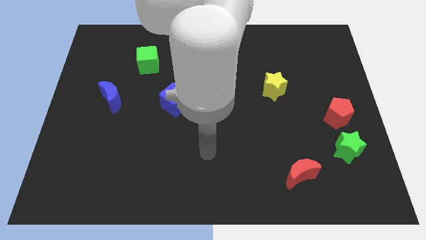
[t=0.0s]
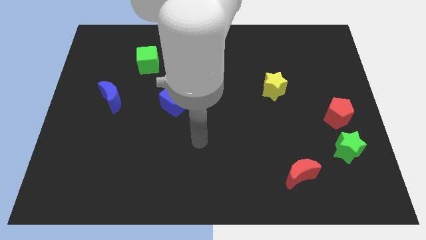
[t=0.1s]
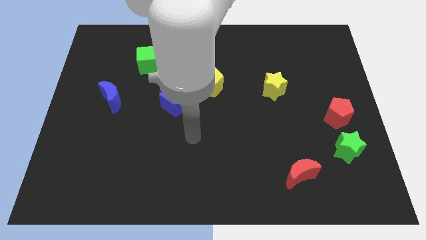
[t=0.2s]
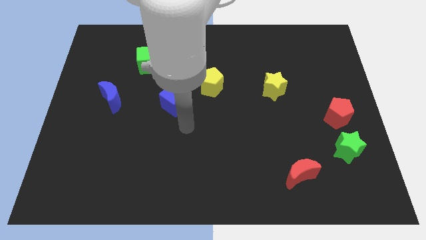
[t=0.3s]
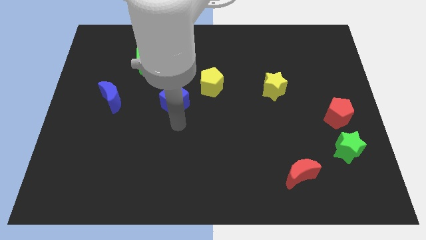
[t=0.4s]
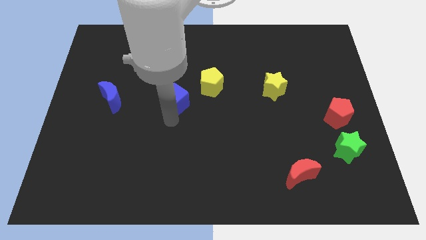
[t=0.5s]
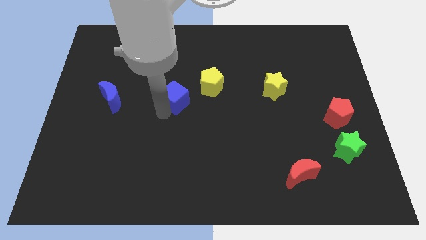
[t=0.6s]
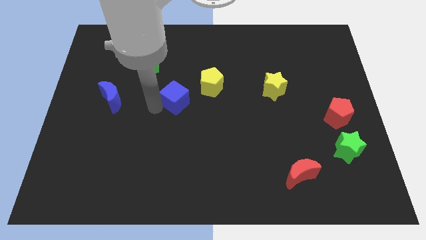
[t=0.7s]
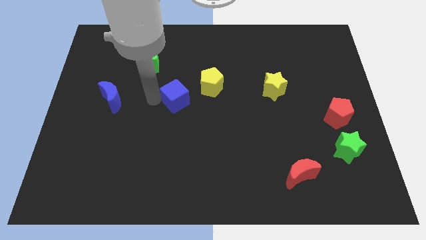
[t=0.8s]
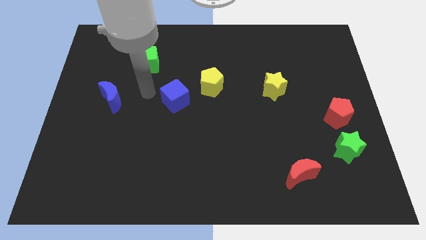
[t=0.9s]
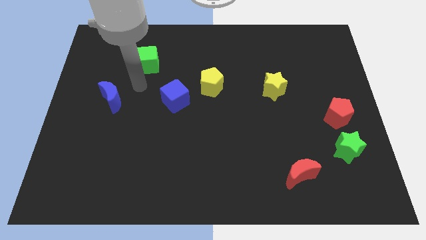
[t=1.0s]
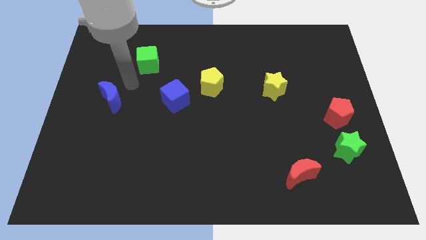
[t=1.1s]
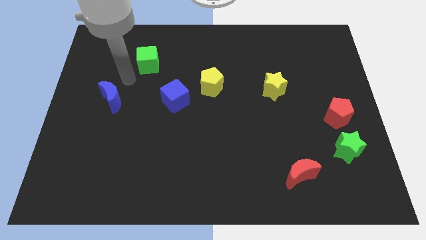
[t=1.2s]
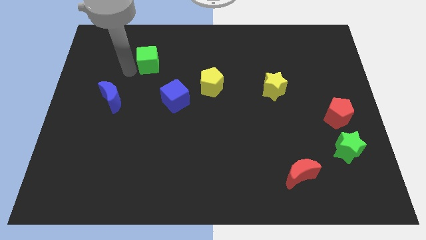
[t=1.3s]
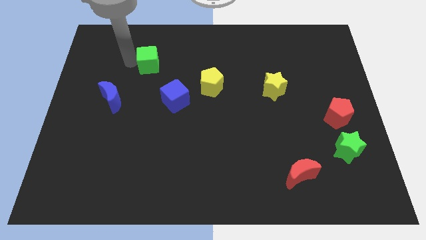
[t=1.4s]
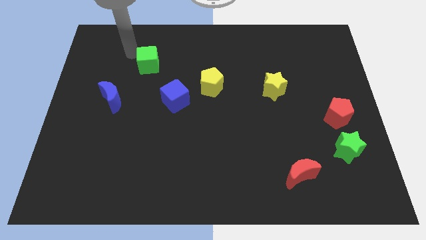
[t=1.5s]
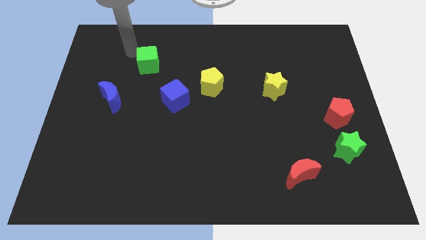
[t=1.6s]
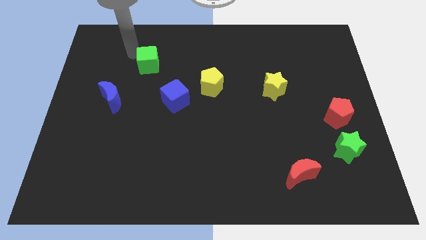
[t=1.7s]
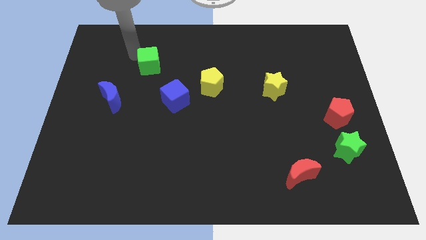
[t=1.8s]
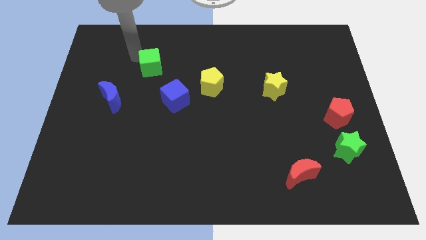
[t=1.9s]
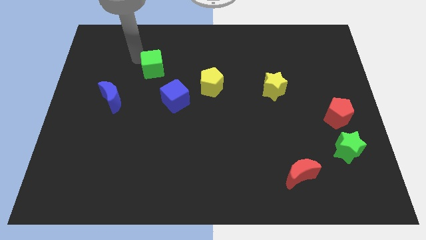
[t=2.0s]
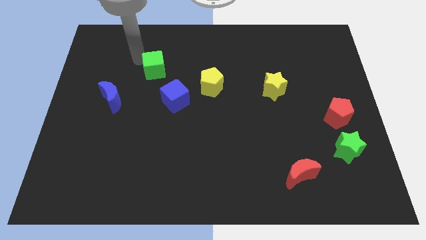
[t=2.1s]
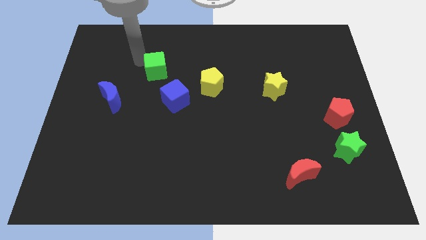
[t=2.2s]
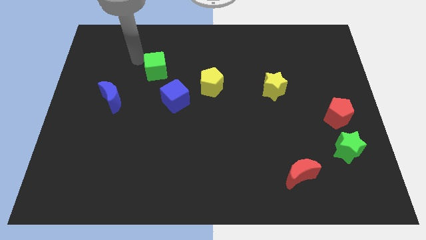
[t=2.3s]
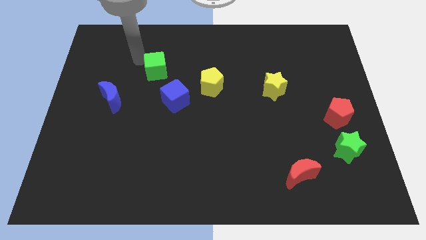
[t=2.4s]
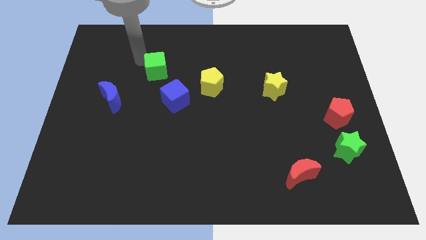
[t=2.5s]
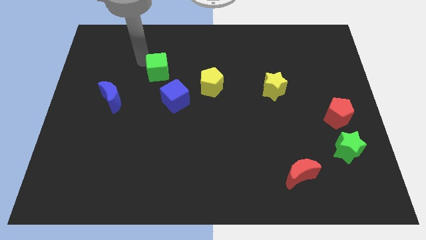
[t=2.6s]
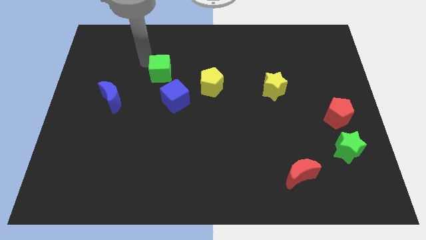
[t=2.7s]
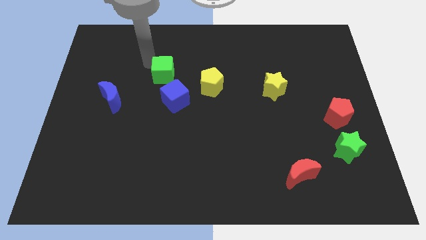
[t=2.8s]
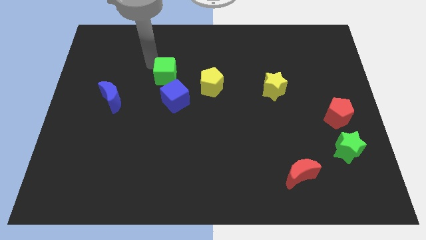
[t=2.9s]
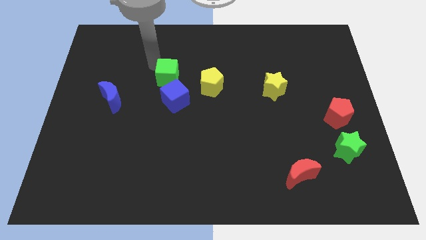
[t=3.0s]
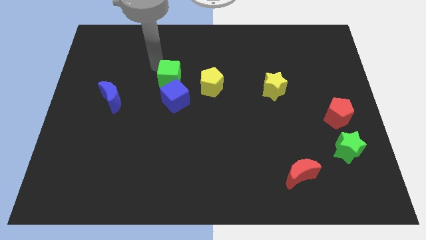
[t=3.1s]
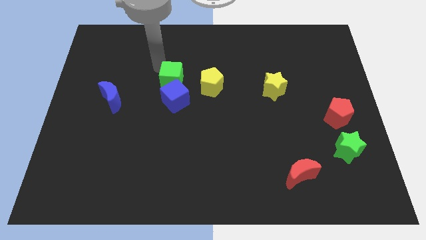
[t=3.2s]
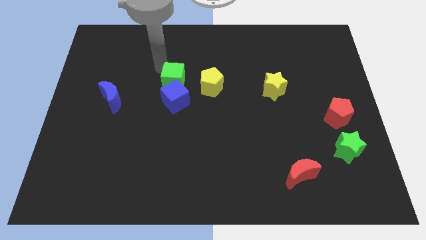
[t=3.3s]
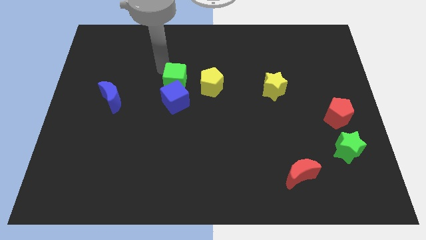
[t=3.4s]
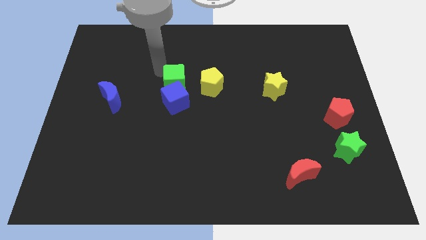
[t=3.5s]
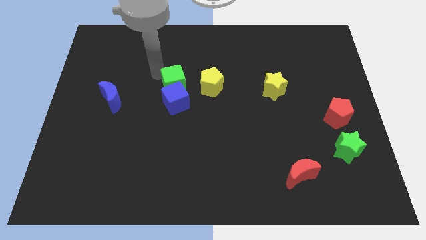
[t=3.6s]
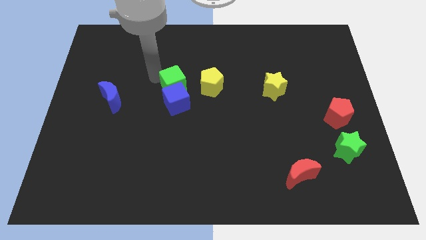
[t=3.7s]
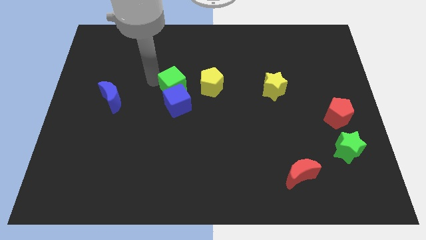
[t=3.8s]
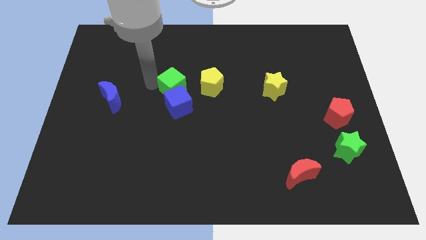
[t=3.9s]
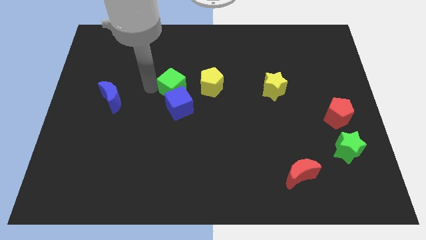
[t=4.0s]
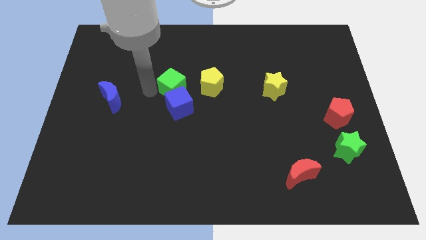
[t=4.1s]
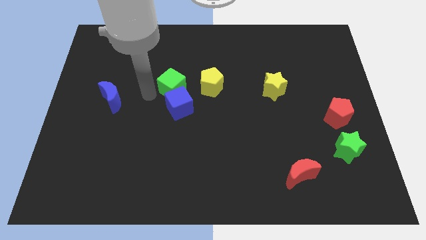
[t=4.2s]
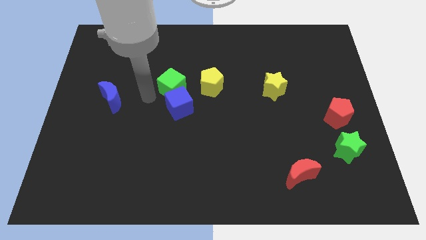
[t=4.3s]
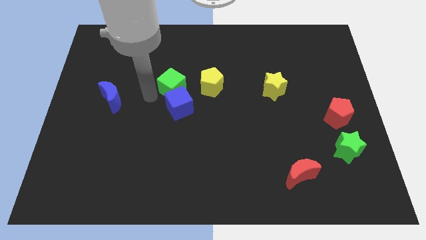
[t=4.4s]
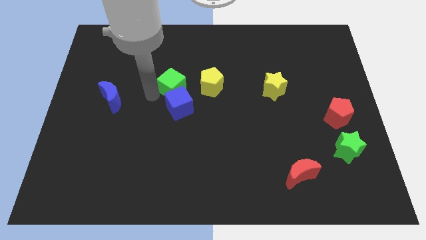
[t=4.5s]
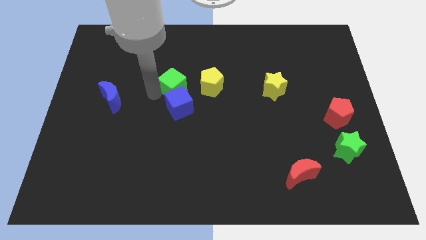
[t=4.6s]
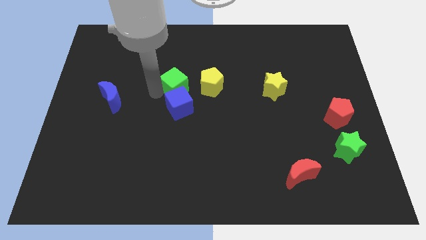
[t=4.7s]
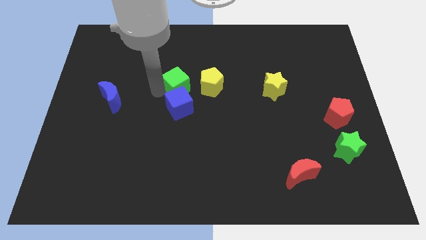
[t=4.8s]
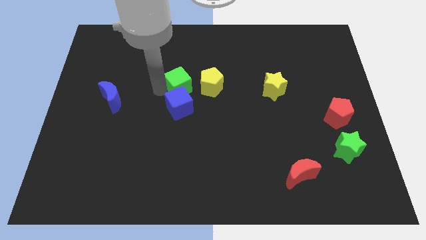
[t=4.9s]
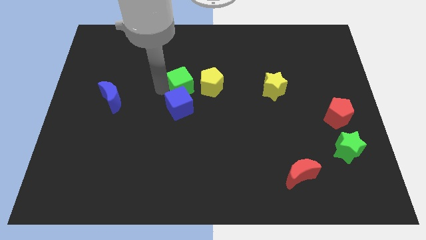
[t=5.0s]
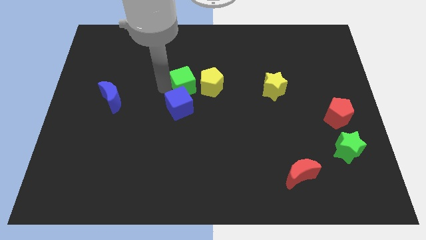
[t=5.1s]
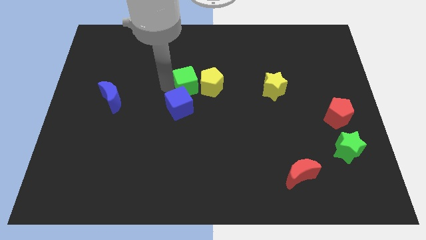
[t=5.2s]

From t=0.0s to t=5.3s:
slide the green cube to the yellow pentagon

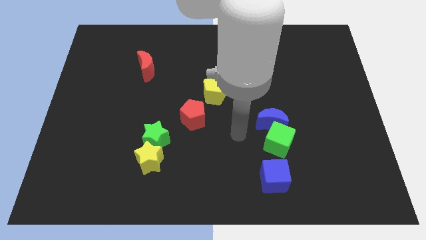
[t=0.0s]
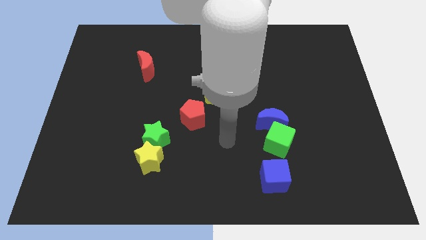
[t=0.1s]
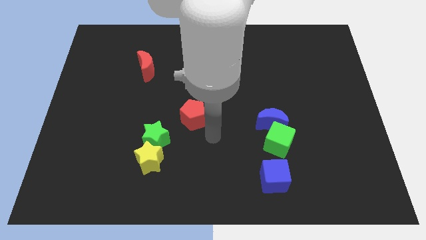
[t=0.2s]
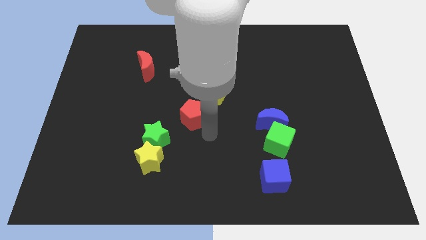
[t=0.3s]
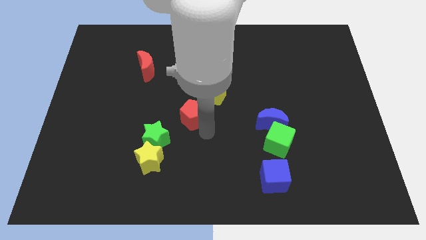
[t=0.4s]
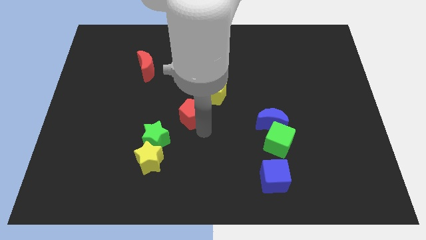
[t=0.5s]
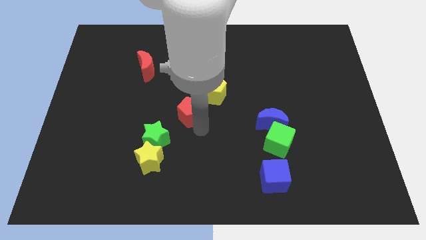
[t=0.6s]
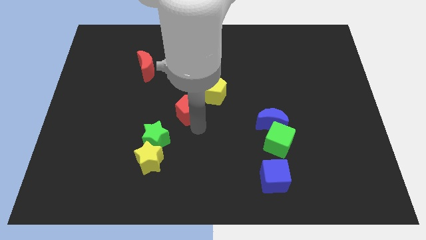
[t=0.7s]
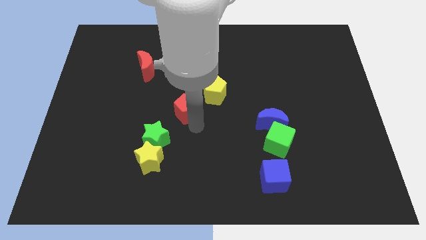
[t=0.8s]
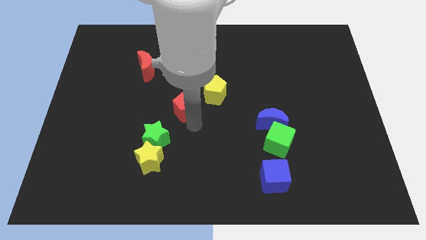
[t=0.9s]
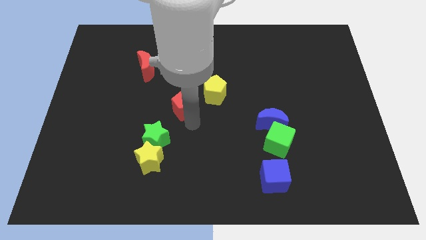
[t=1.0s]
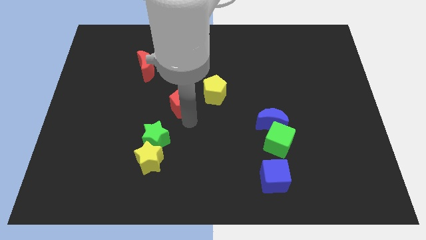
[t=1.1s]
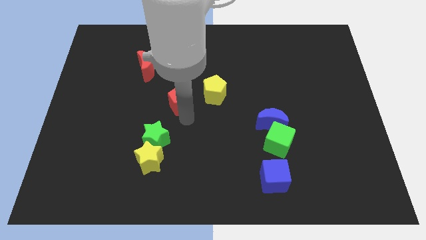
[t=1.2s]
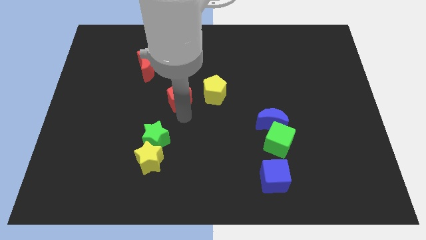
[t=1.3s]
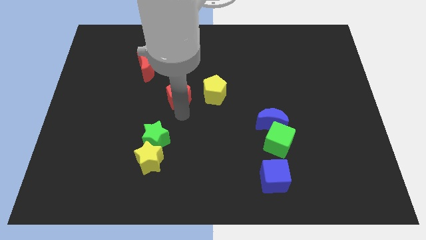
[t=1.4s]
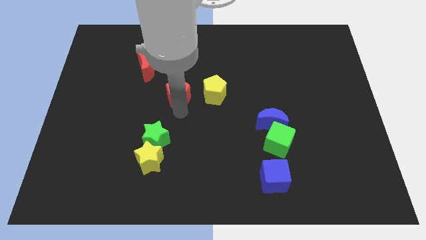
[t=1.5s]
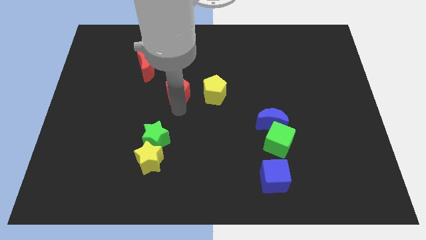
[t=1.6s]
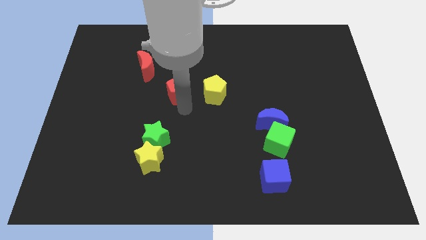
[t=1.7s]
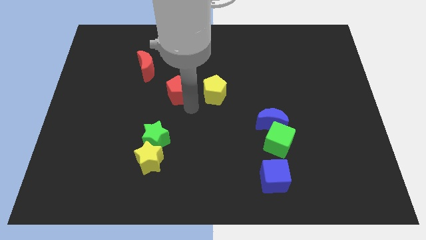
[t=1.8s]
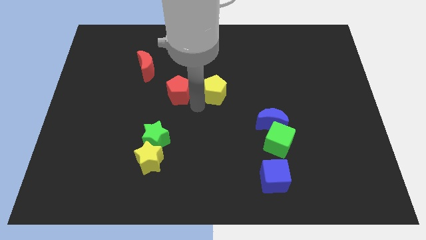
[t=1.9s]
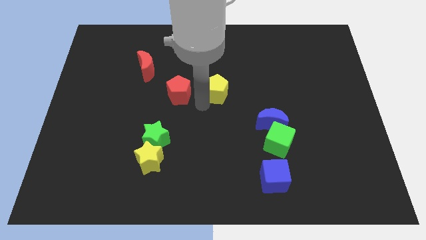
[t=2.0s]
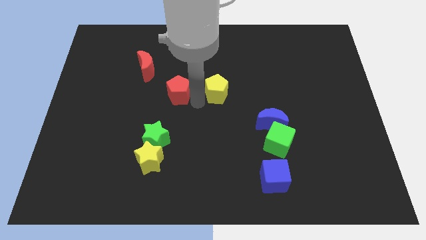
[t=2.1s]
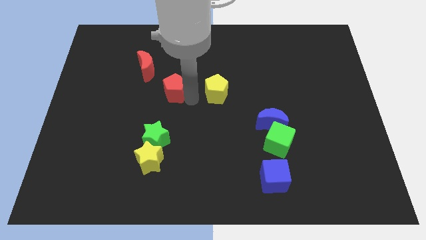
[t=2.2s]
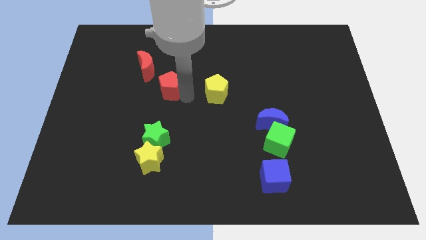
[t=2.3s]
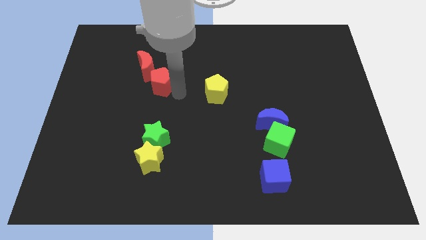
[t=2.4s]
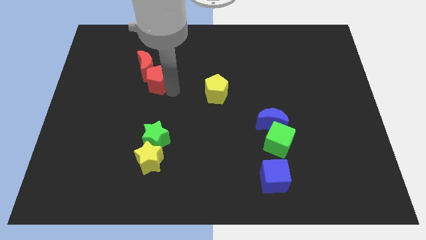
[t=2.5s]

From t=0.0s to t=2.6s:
push the red pentagon close to the red moon
